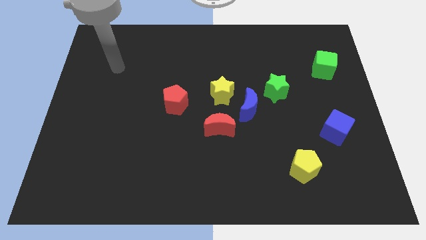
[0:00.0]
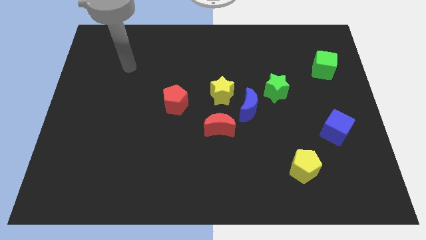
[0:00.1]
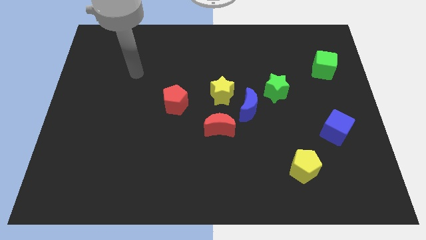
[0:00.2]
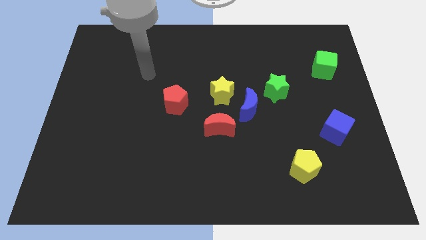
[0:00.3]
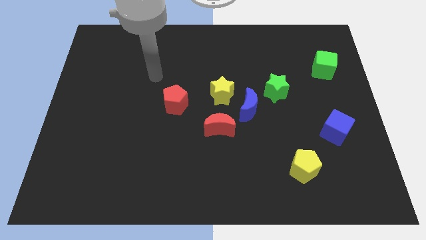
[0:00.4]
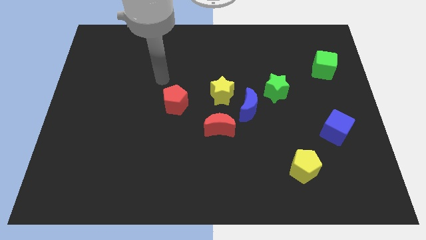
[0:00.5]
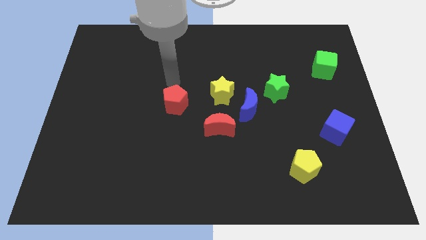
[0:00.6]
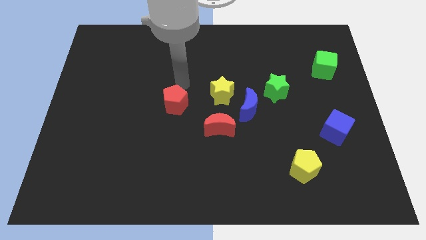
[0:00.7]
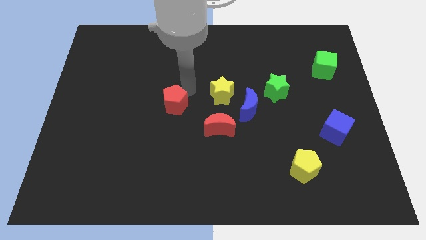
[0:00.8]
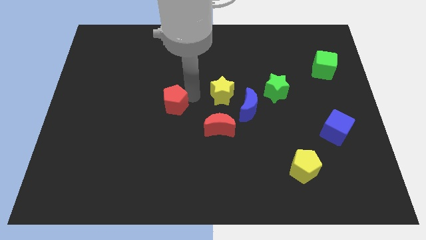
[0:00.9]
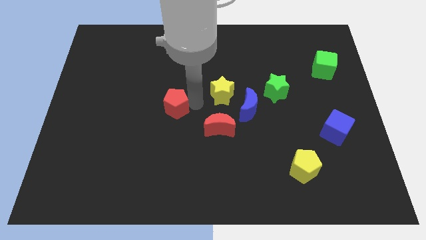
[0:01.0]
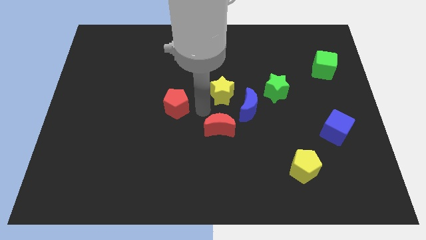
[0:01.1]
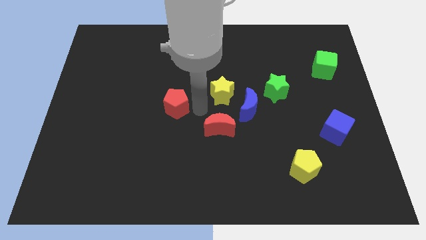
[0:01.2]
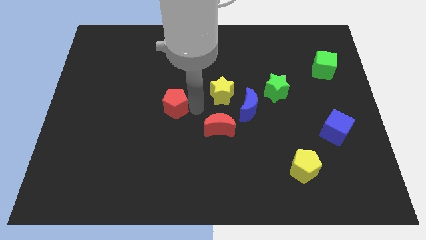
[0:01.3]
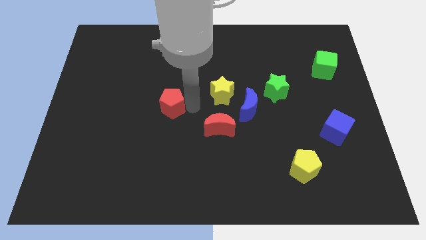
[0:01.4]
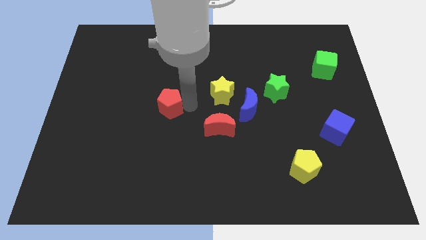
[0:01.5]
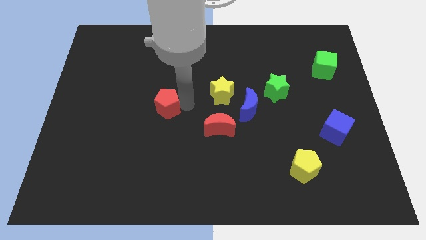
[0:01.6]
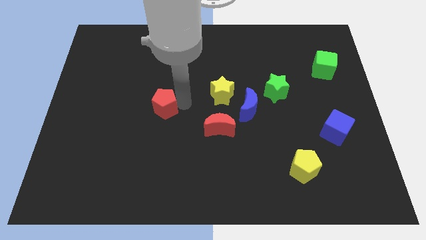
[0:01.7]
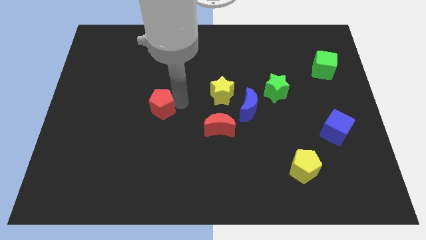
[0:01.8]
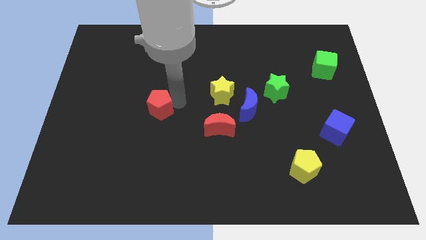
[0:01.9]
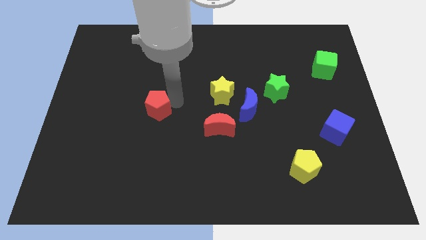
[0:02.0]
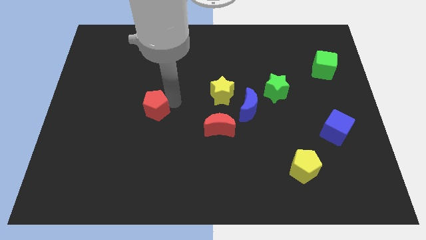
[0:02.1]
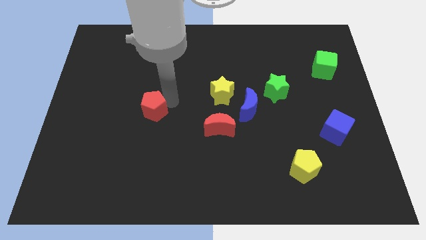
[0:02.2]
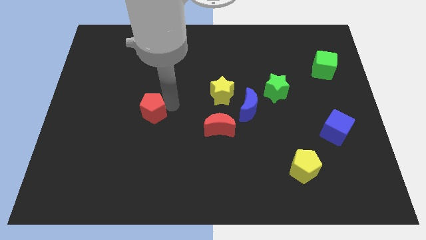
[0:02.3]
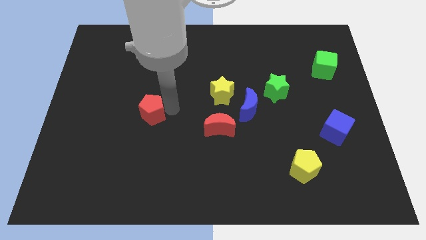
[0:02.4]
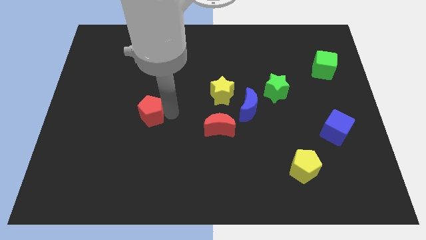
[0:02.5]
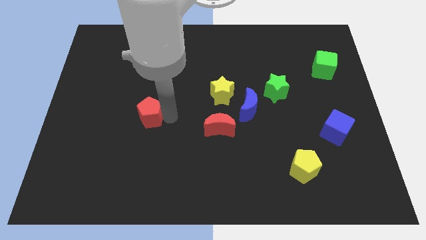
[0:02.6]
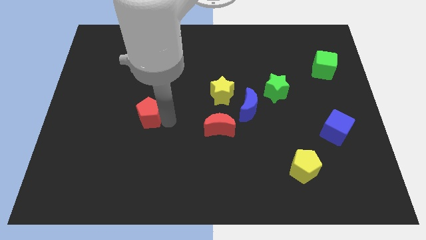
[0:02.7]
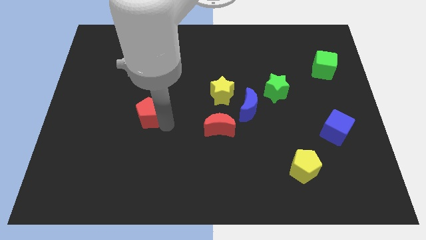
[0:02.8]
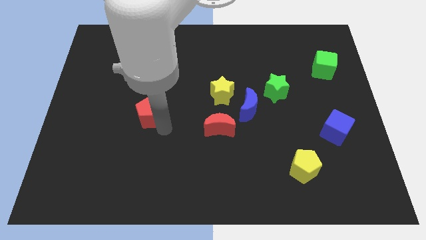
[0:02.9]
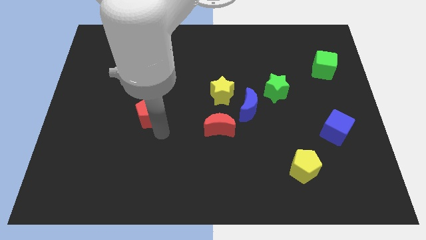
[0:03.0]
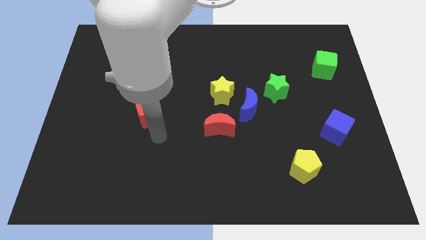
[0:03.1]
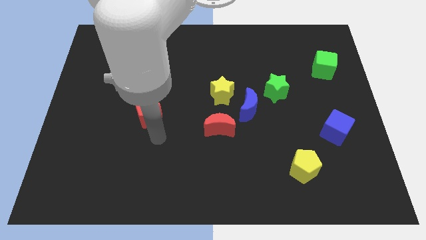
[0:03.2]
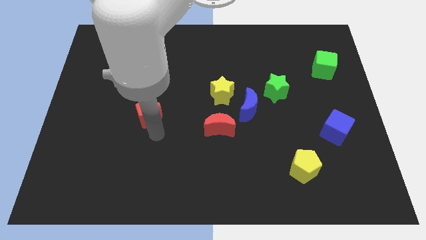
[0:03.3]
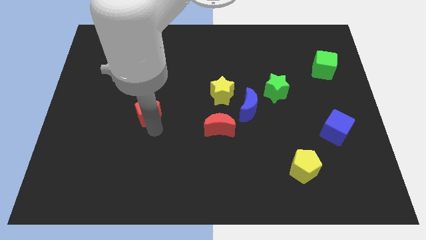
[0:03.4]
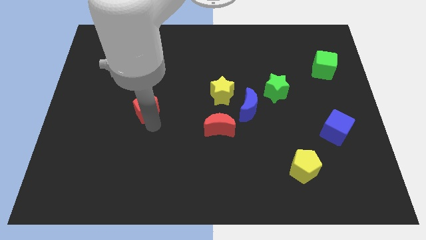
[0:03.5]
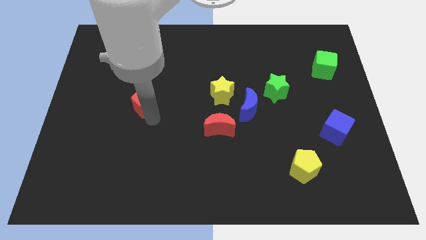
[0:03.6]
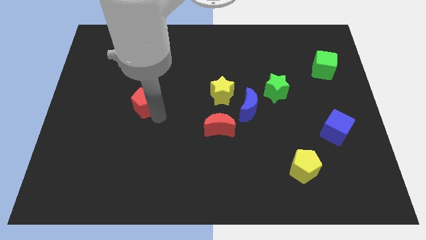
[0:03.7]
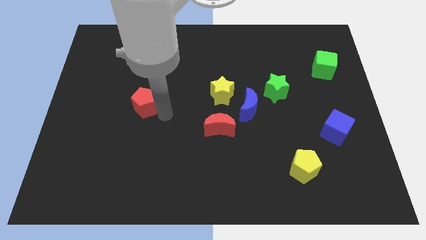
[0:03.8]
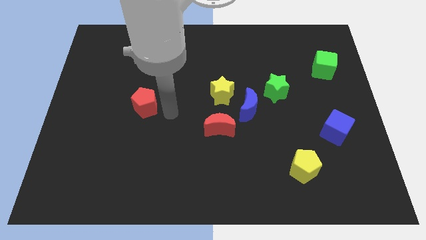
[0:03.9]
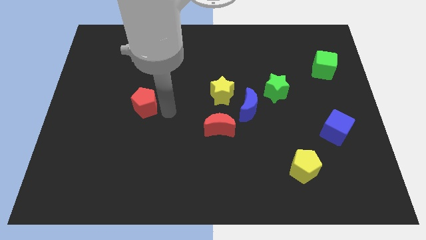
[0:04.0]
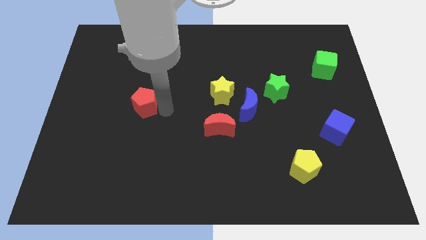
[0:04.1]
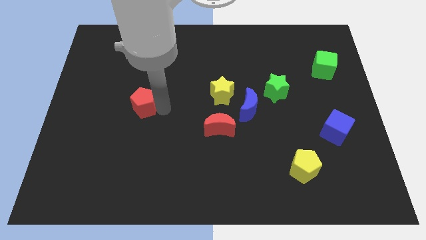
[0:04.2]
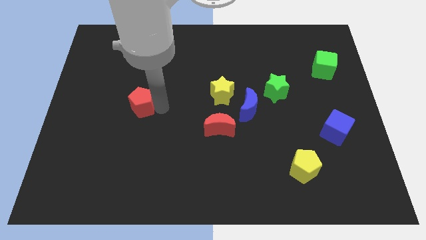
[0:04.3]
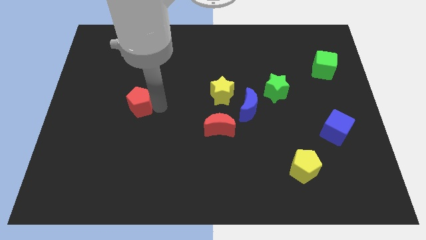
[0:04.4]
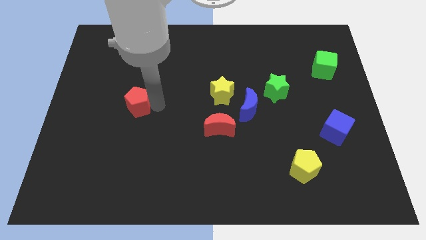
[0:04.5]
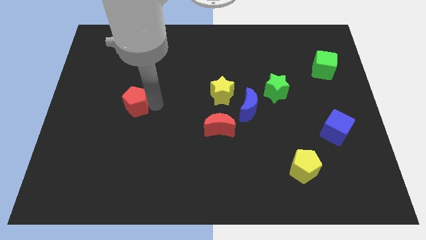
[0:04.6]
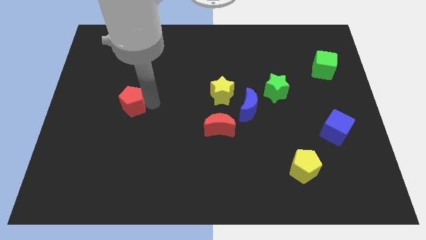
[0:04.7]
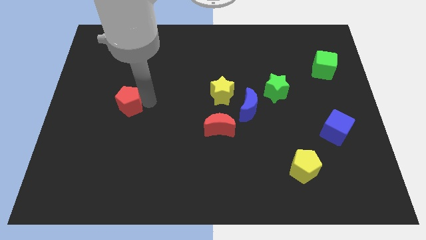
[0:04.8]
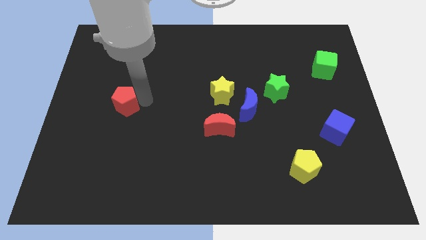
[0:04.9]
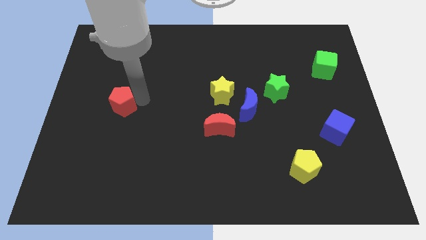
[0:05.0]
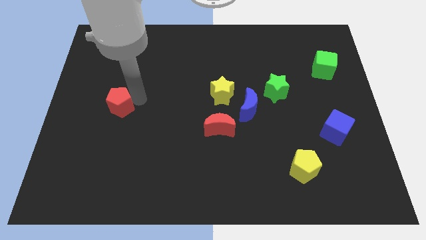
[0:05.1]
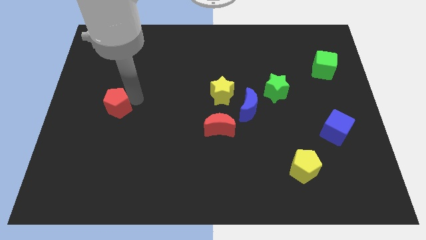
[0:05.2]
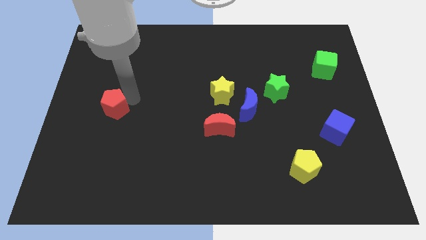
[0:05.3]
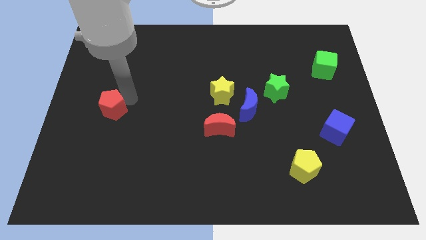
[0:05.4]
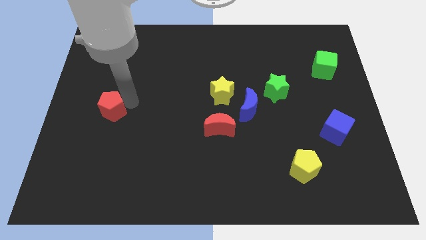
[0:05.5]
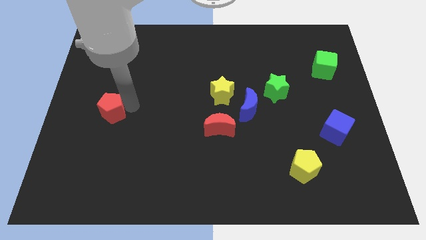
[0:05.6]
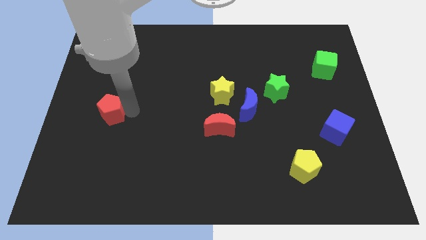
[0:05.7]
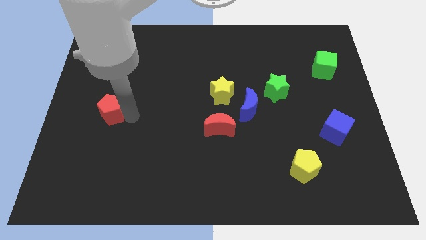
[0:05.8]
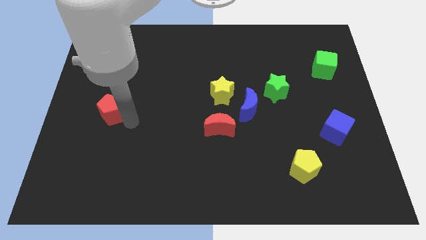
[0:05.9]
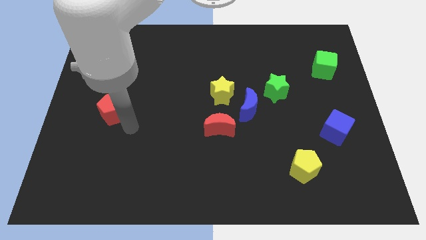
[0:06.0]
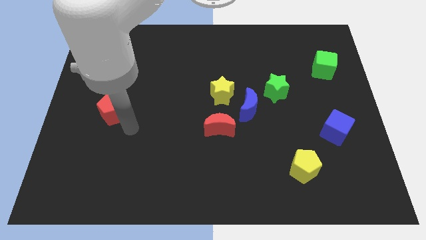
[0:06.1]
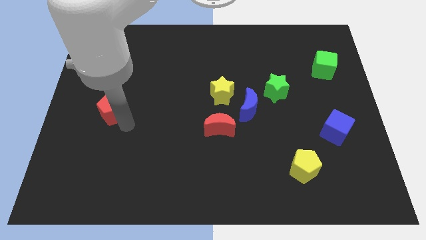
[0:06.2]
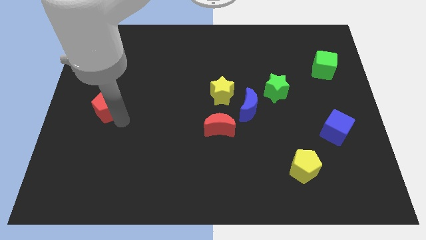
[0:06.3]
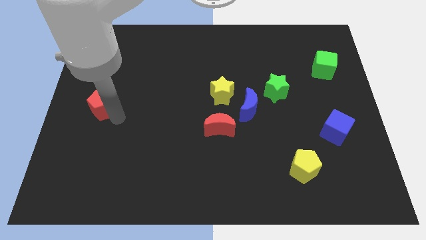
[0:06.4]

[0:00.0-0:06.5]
push the red pentagon to the left side
